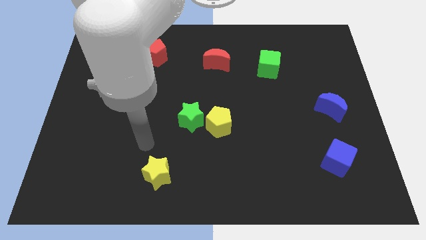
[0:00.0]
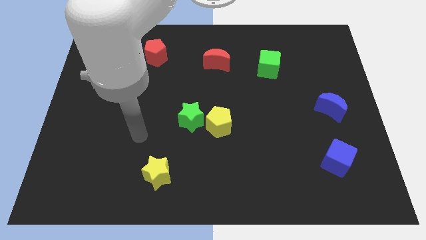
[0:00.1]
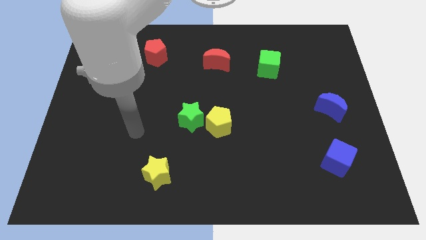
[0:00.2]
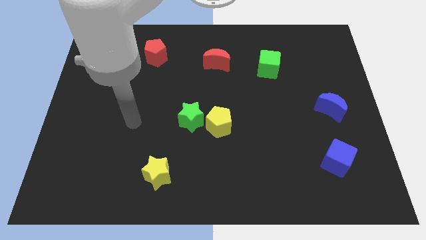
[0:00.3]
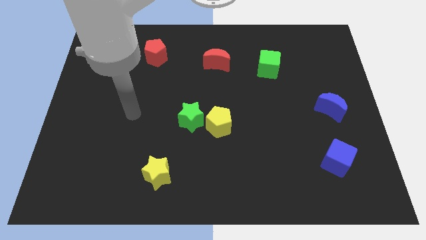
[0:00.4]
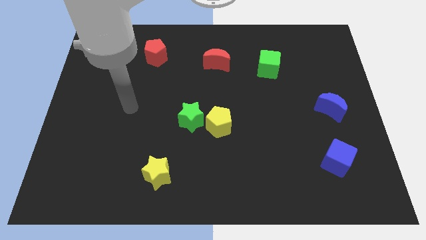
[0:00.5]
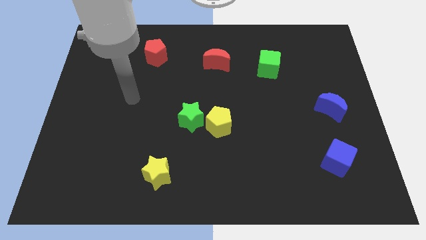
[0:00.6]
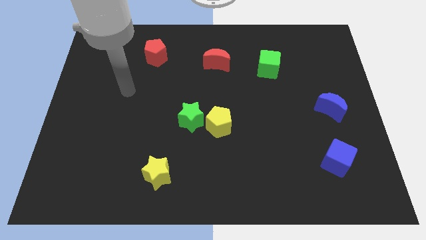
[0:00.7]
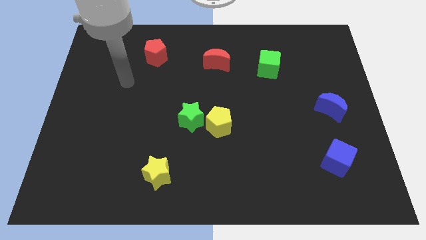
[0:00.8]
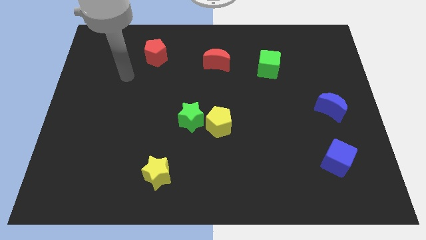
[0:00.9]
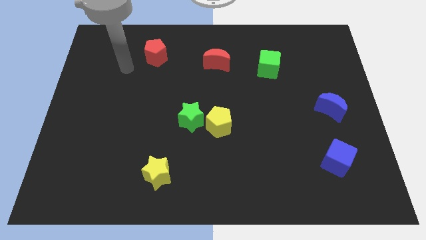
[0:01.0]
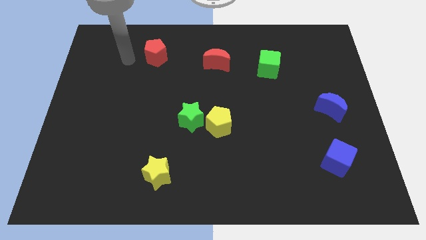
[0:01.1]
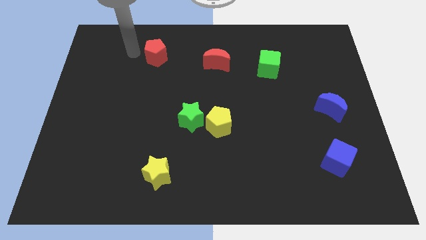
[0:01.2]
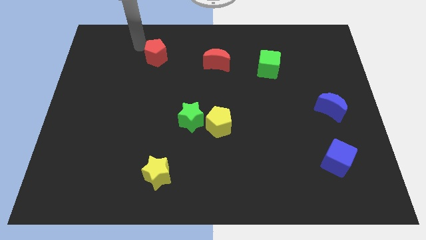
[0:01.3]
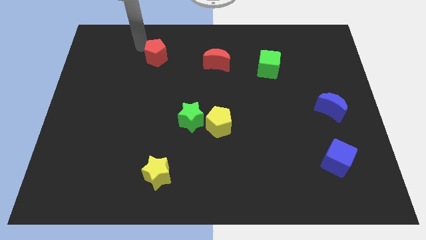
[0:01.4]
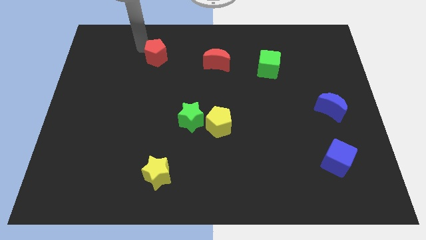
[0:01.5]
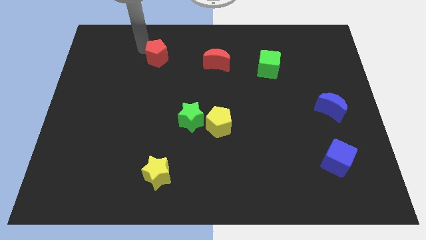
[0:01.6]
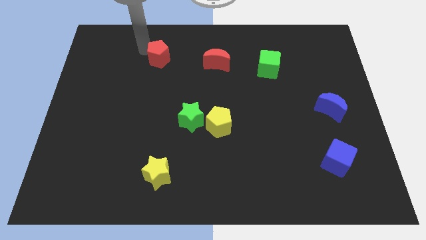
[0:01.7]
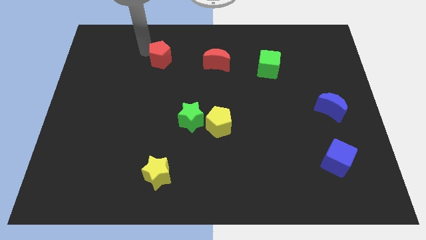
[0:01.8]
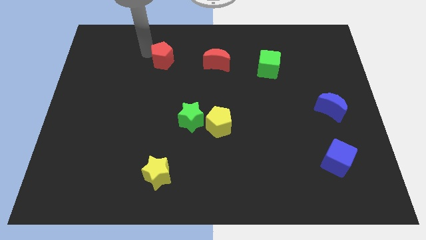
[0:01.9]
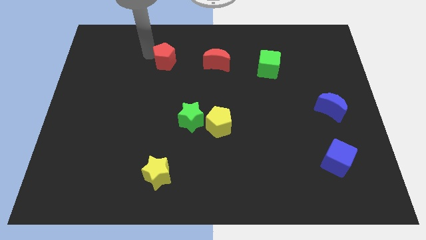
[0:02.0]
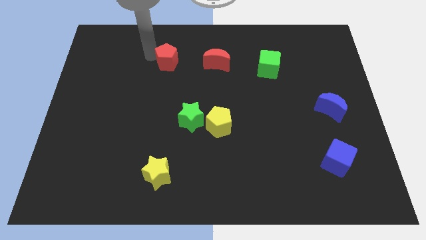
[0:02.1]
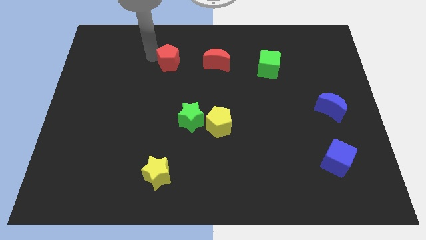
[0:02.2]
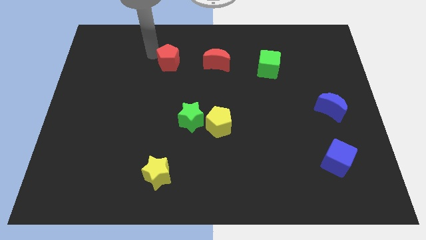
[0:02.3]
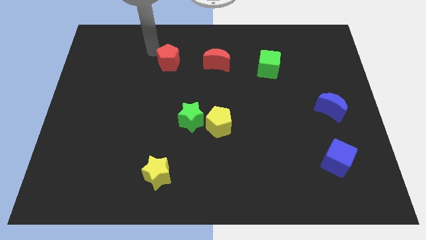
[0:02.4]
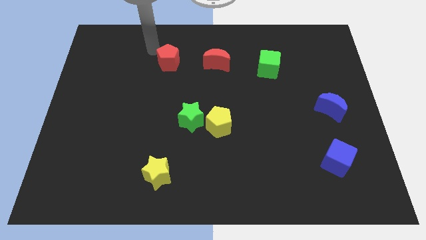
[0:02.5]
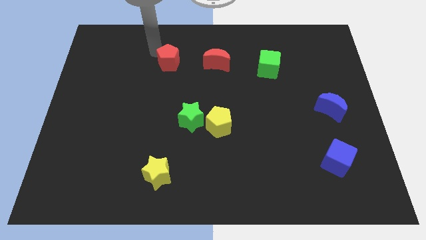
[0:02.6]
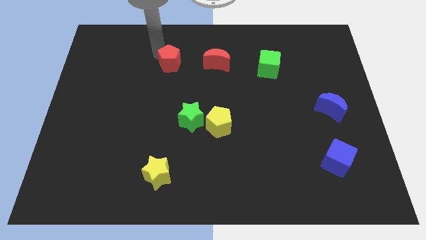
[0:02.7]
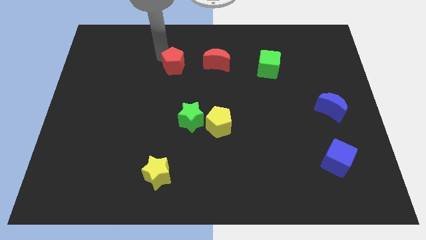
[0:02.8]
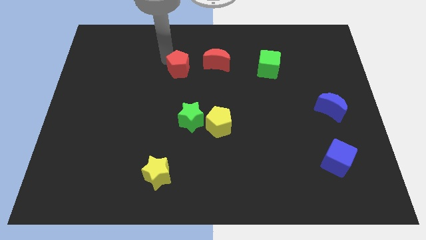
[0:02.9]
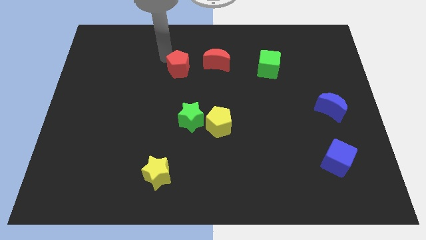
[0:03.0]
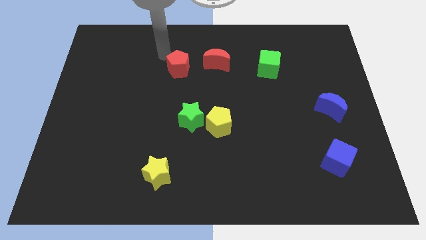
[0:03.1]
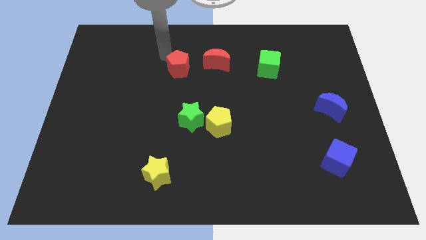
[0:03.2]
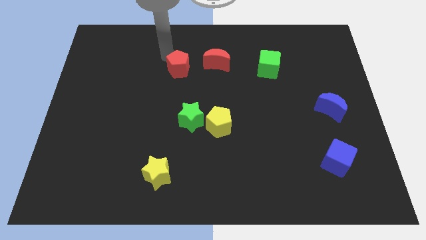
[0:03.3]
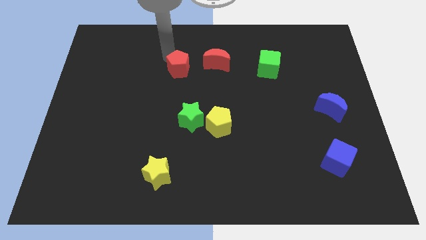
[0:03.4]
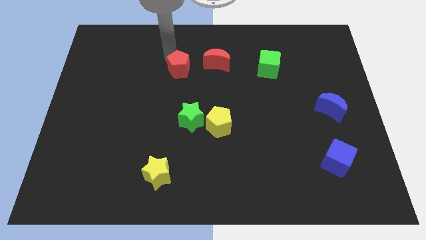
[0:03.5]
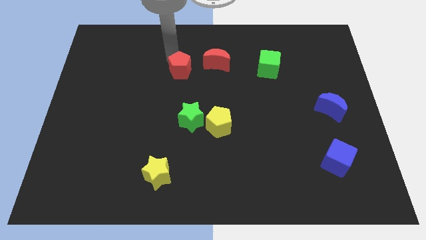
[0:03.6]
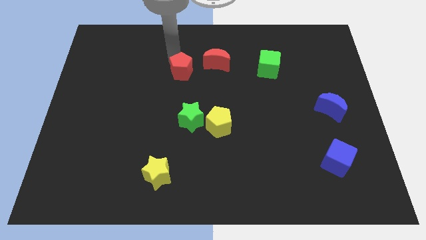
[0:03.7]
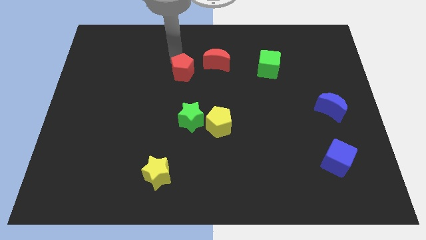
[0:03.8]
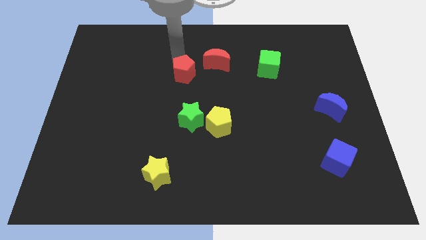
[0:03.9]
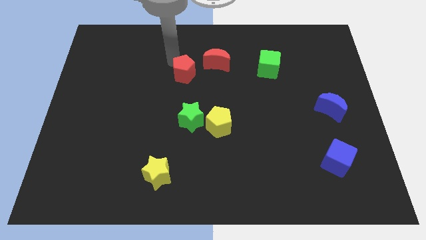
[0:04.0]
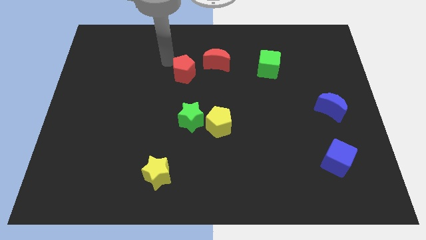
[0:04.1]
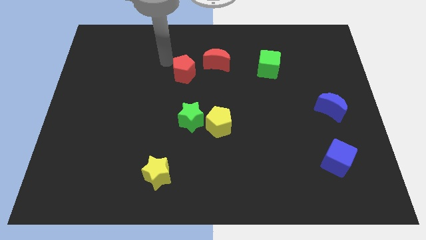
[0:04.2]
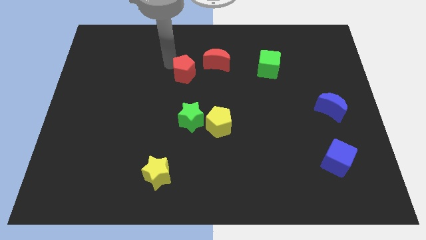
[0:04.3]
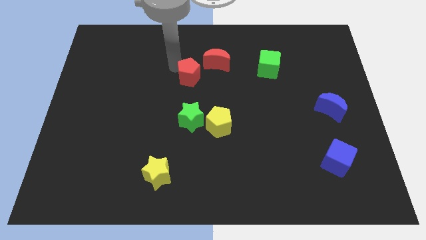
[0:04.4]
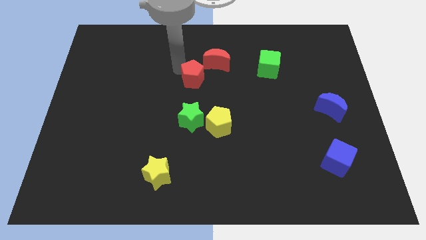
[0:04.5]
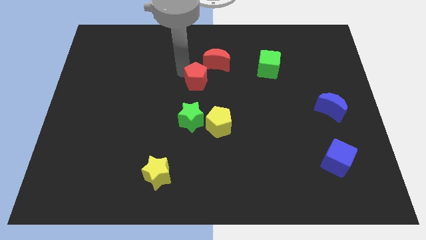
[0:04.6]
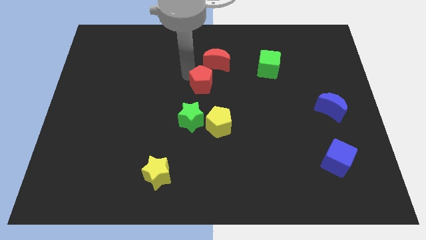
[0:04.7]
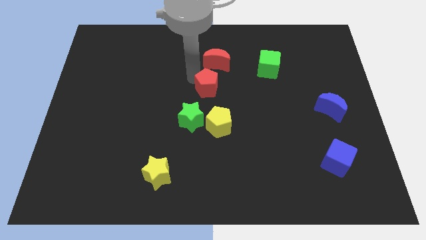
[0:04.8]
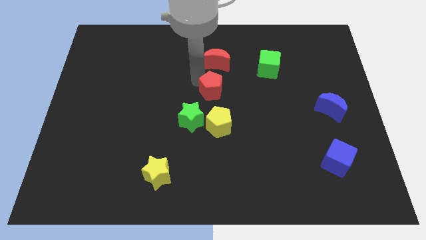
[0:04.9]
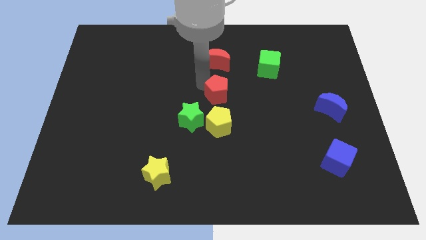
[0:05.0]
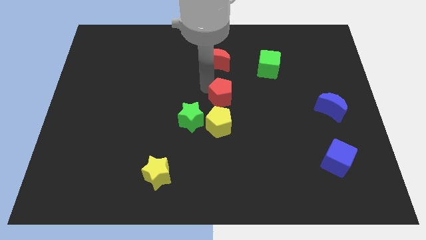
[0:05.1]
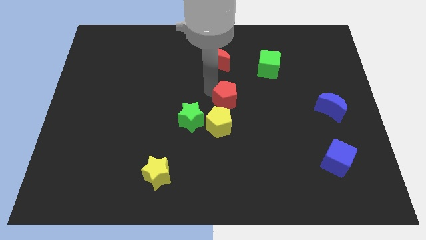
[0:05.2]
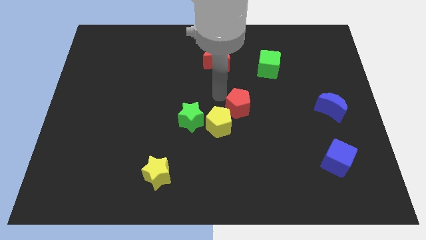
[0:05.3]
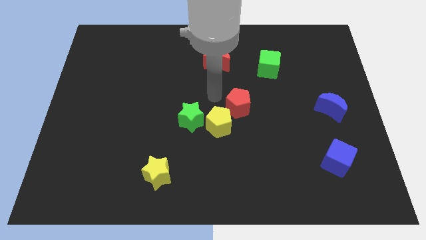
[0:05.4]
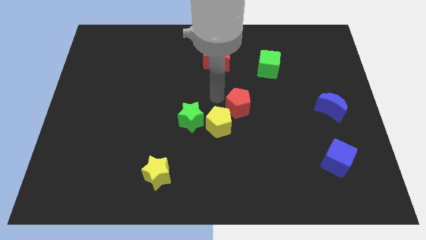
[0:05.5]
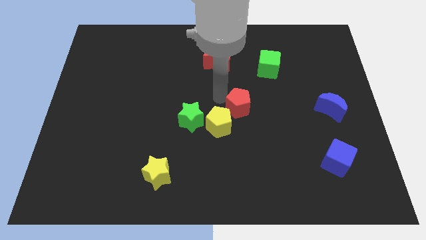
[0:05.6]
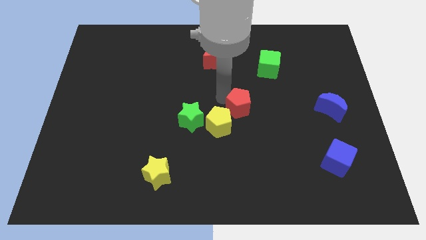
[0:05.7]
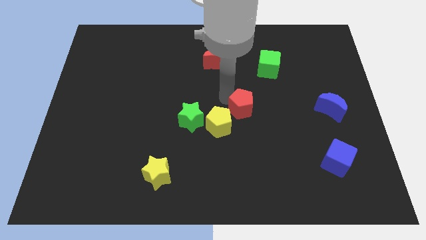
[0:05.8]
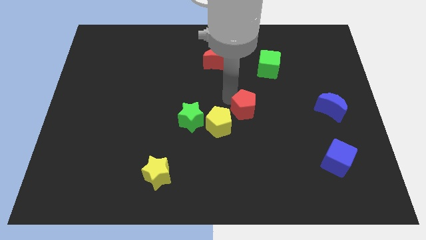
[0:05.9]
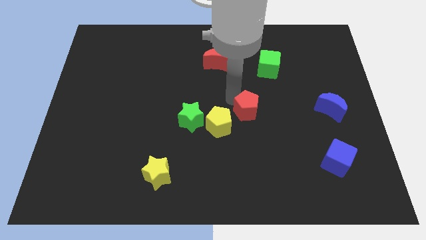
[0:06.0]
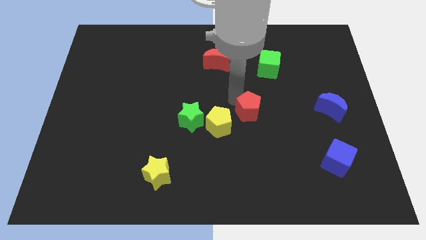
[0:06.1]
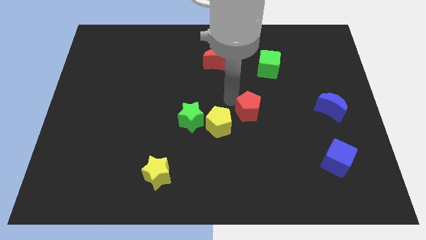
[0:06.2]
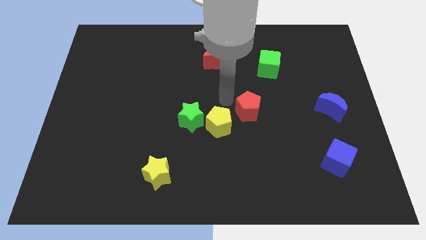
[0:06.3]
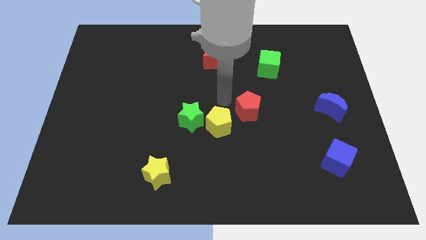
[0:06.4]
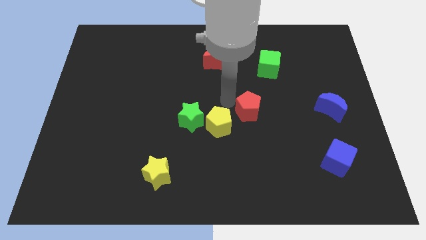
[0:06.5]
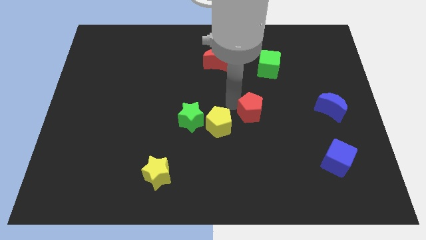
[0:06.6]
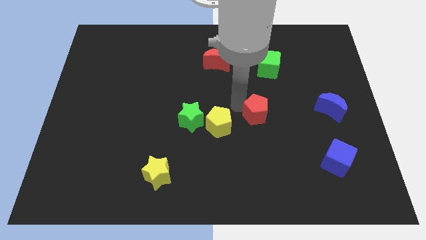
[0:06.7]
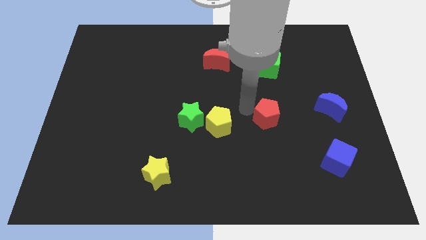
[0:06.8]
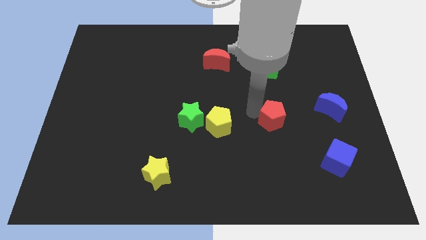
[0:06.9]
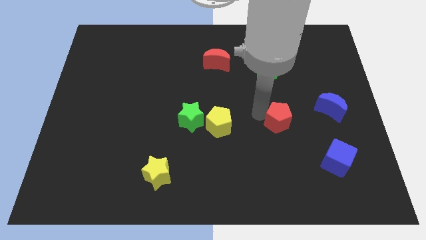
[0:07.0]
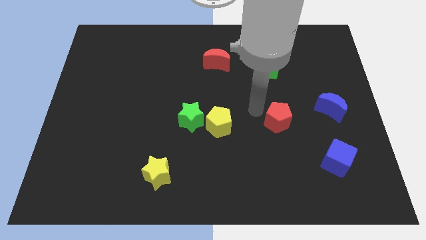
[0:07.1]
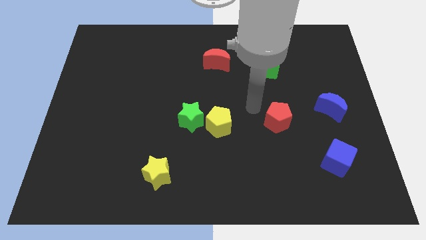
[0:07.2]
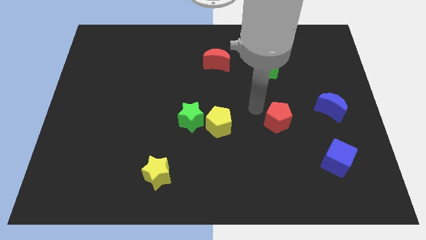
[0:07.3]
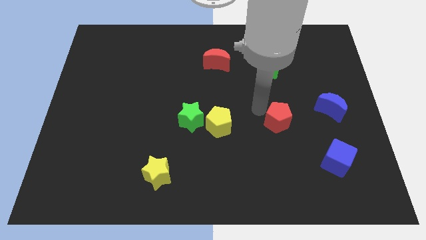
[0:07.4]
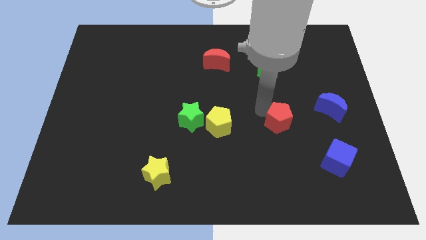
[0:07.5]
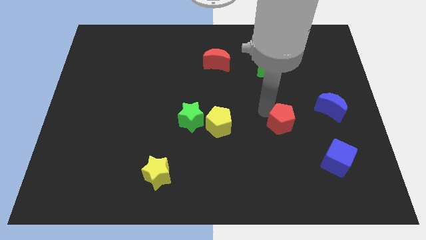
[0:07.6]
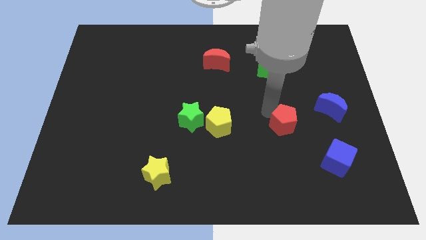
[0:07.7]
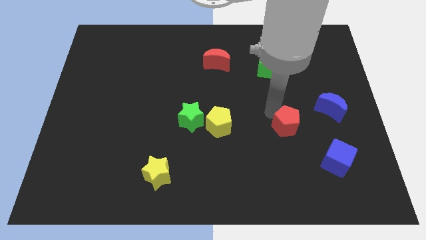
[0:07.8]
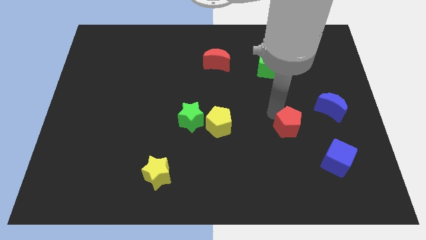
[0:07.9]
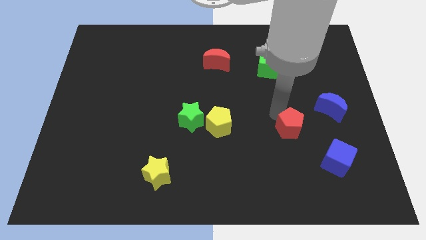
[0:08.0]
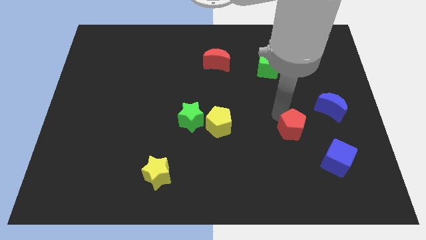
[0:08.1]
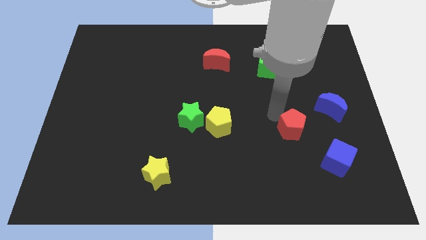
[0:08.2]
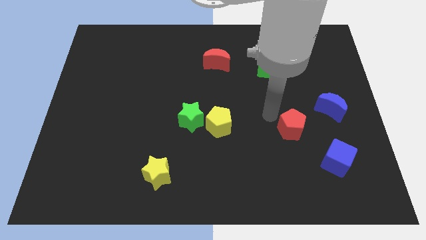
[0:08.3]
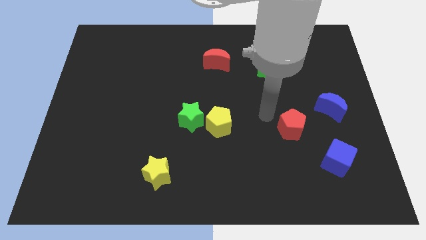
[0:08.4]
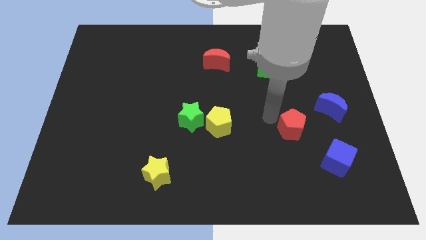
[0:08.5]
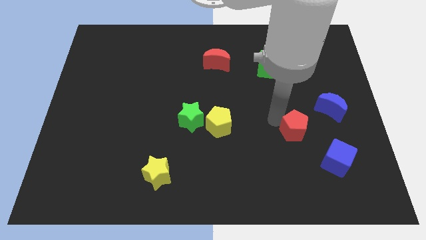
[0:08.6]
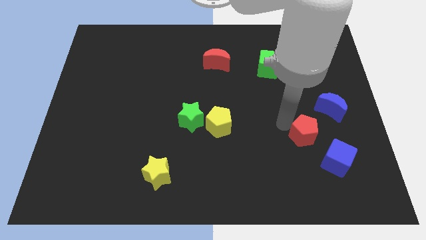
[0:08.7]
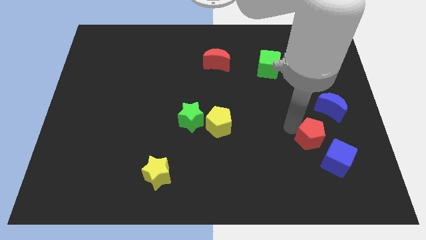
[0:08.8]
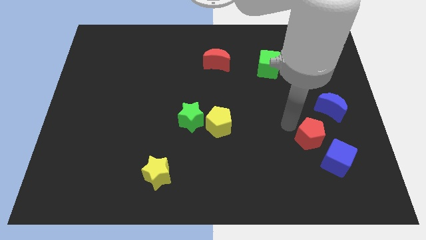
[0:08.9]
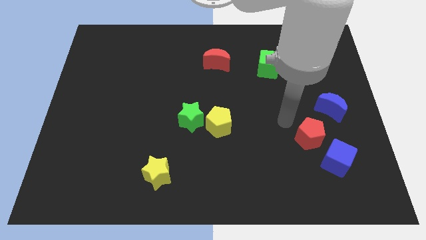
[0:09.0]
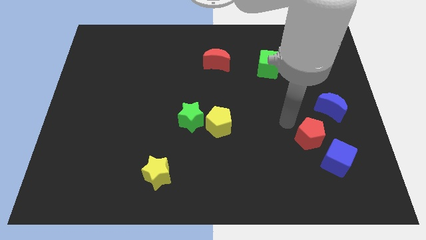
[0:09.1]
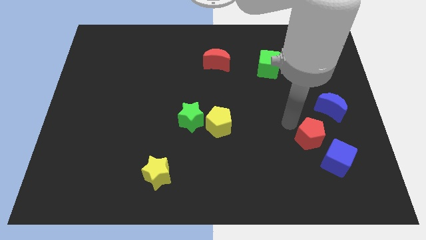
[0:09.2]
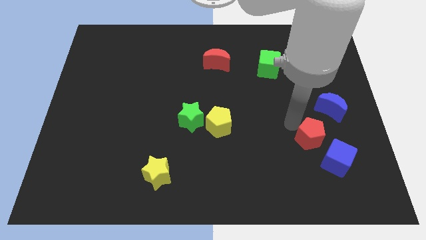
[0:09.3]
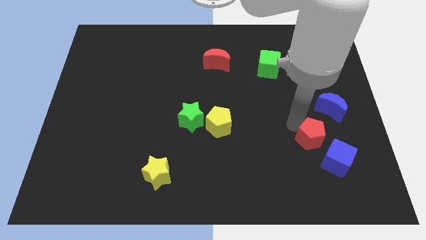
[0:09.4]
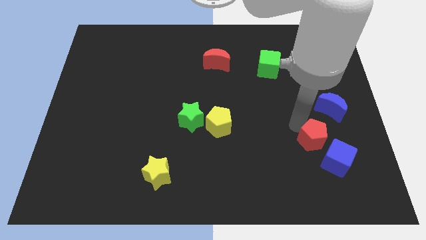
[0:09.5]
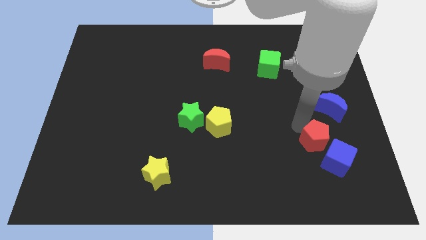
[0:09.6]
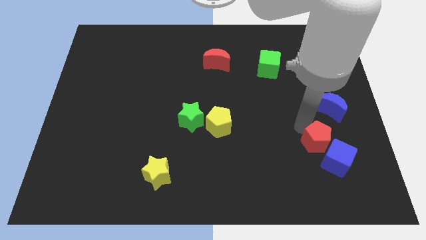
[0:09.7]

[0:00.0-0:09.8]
put the red pentagon to the blue cube
